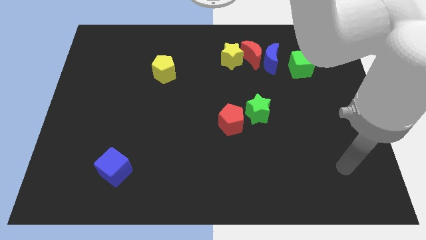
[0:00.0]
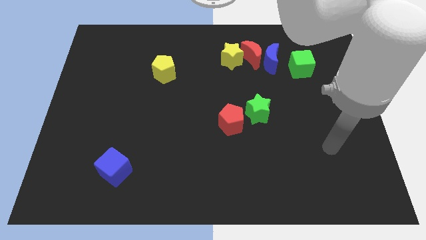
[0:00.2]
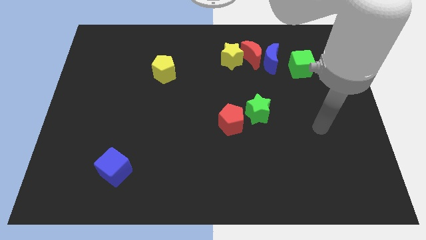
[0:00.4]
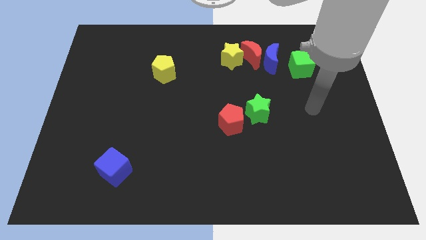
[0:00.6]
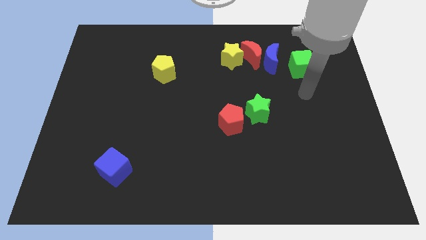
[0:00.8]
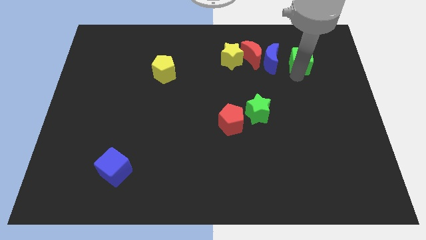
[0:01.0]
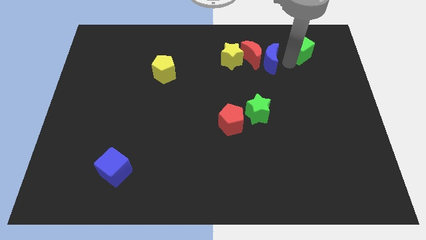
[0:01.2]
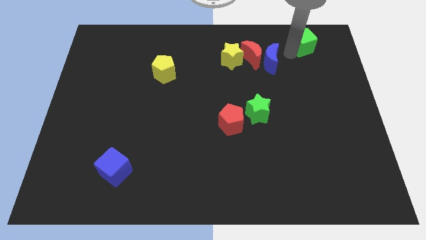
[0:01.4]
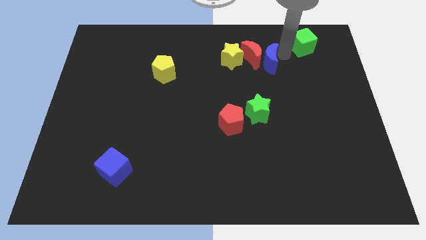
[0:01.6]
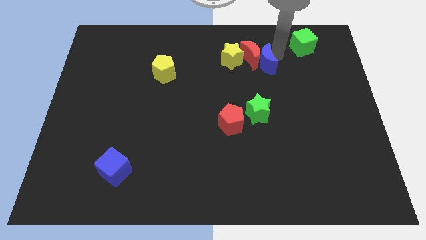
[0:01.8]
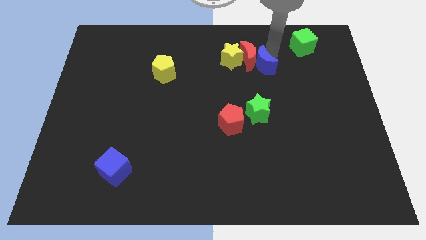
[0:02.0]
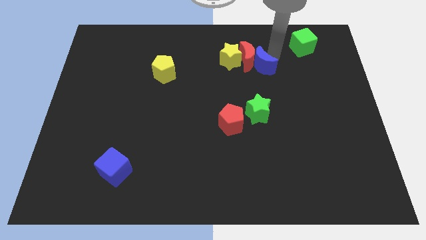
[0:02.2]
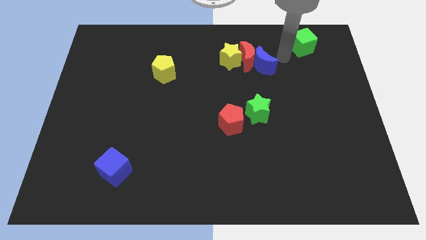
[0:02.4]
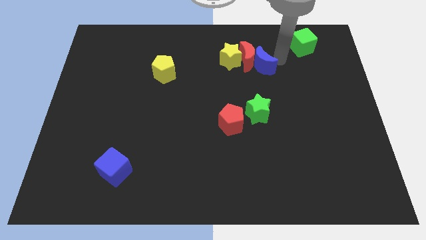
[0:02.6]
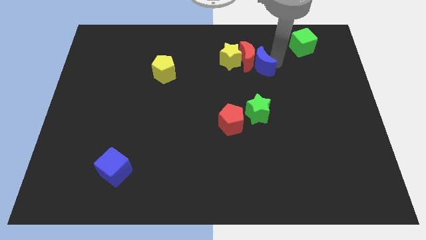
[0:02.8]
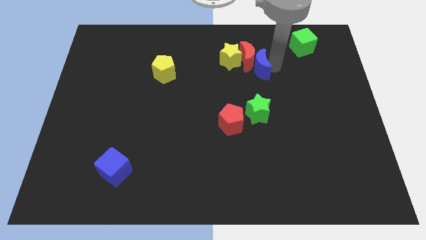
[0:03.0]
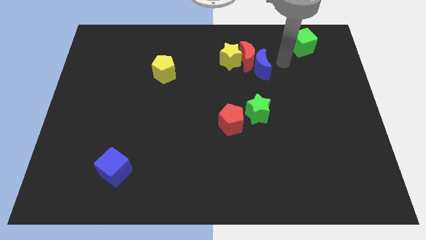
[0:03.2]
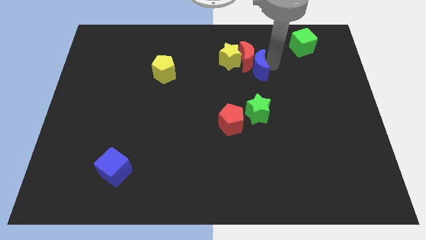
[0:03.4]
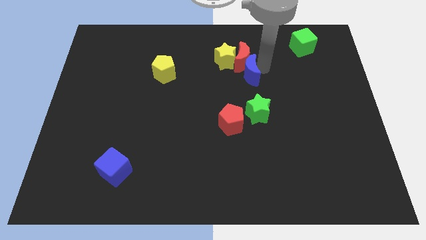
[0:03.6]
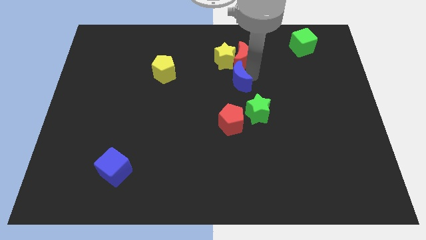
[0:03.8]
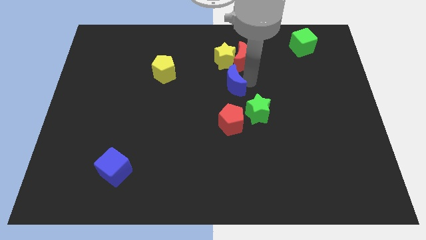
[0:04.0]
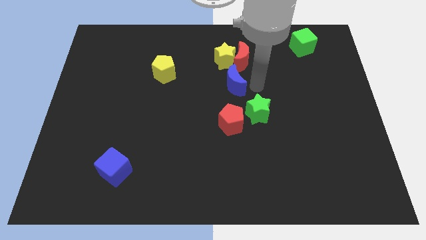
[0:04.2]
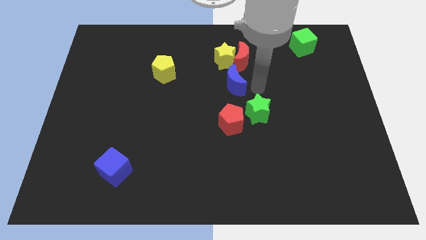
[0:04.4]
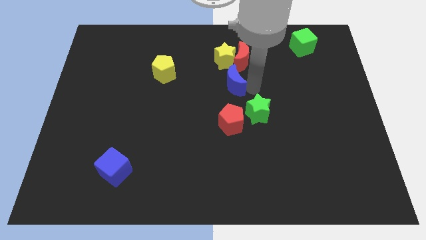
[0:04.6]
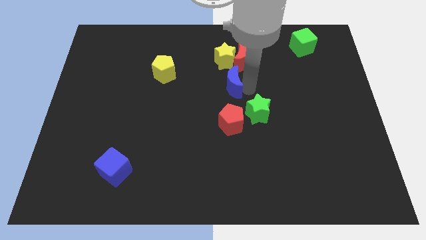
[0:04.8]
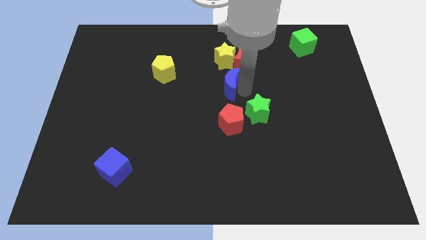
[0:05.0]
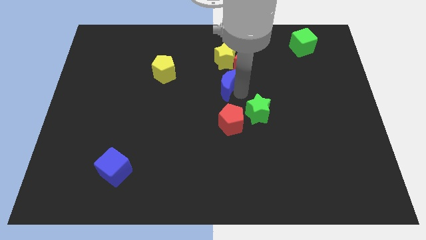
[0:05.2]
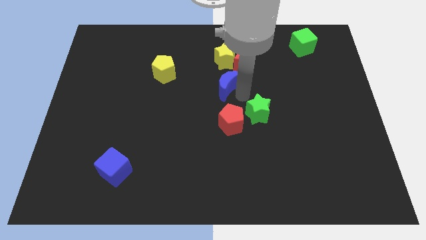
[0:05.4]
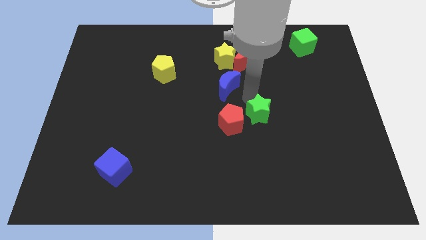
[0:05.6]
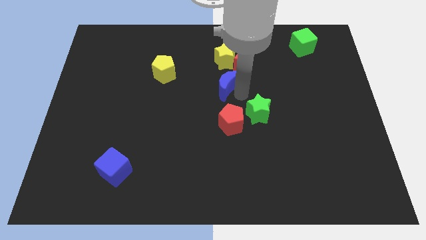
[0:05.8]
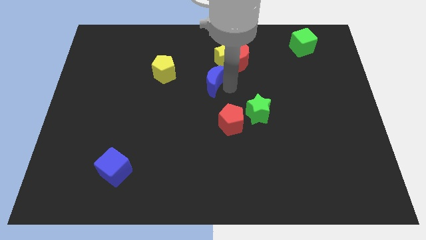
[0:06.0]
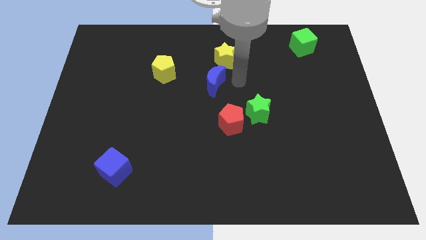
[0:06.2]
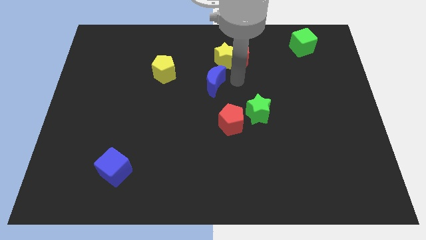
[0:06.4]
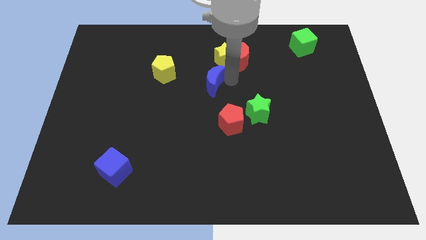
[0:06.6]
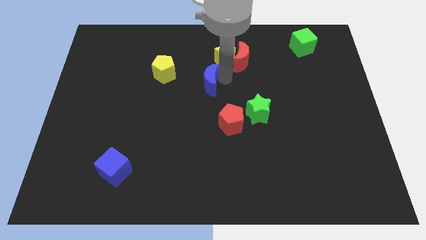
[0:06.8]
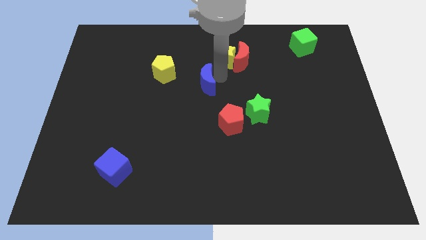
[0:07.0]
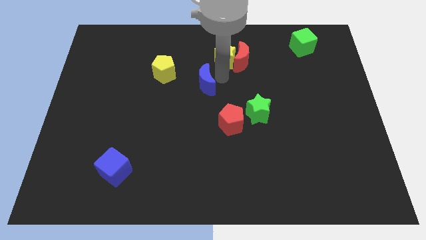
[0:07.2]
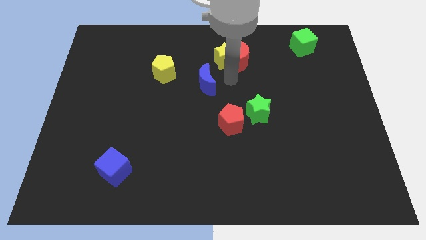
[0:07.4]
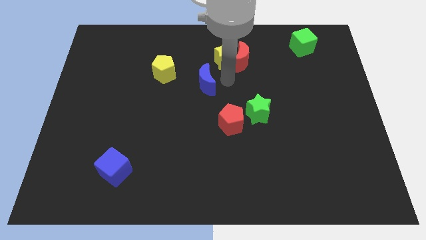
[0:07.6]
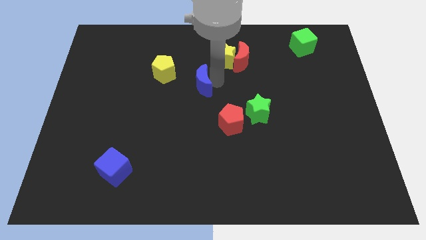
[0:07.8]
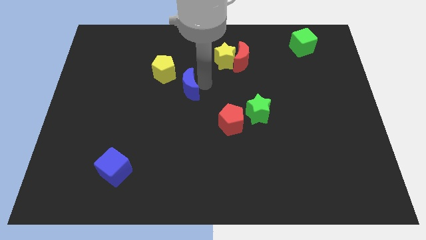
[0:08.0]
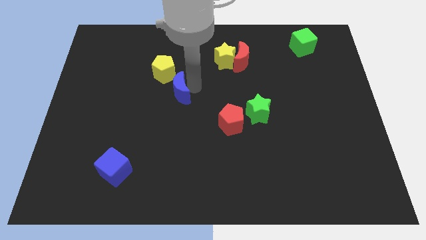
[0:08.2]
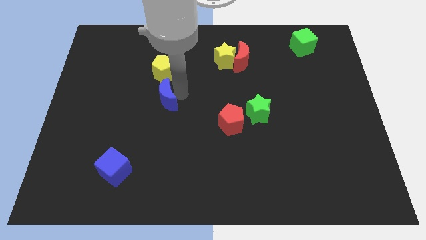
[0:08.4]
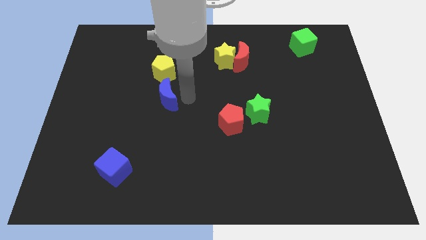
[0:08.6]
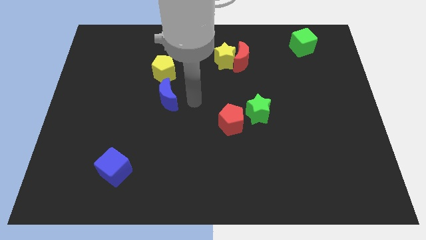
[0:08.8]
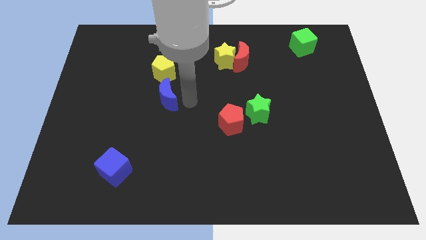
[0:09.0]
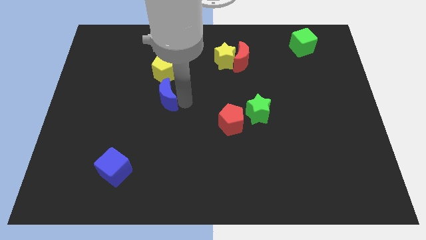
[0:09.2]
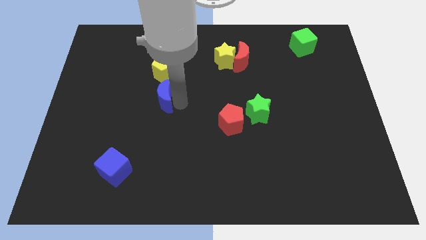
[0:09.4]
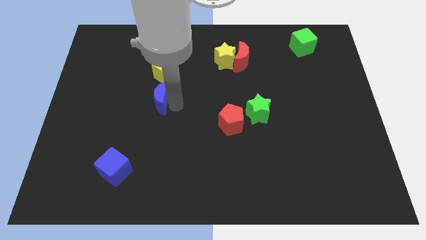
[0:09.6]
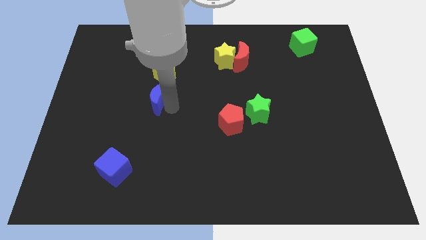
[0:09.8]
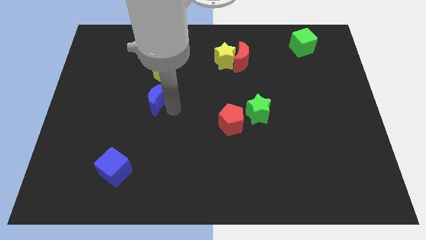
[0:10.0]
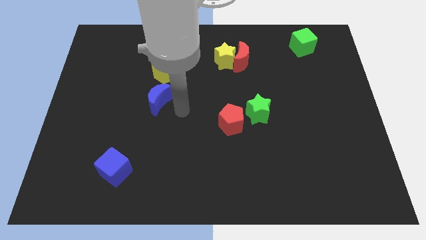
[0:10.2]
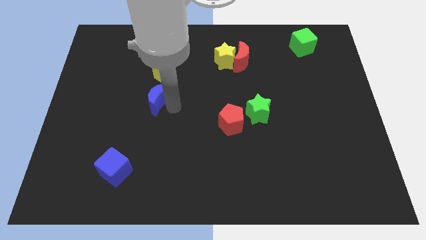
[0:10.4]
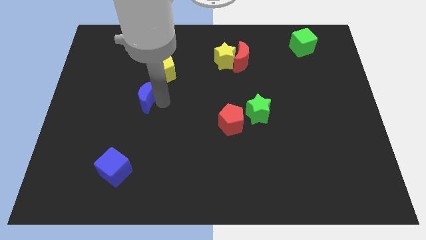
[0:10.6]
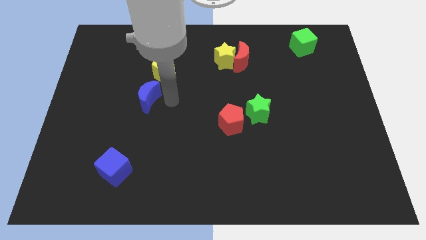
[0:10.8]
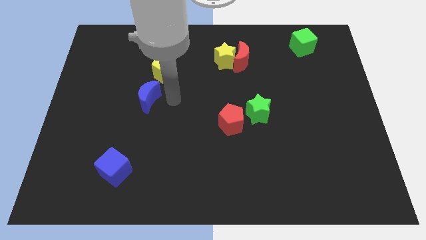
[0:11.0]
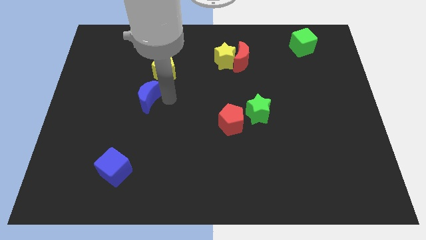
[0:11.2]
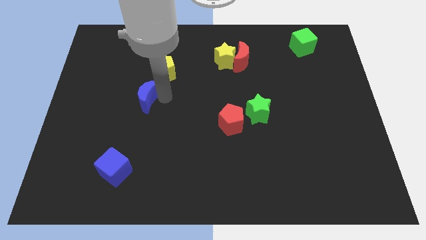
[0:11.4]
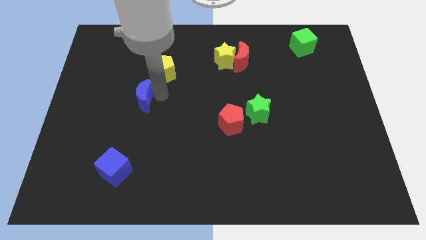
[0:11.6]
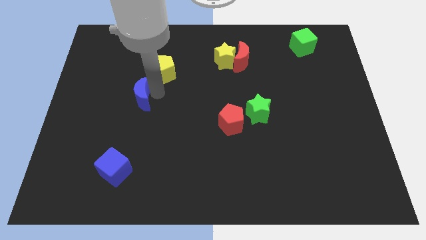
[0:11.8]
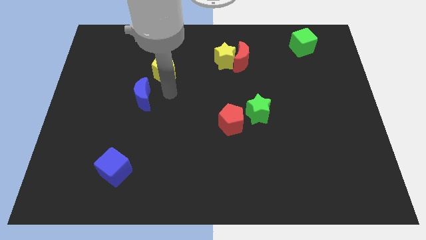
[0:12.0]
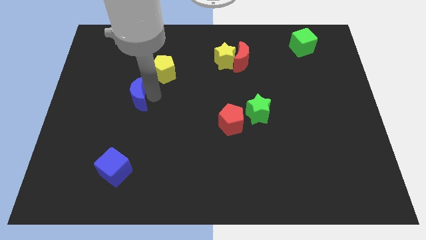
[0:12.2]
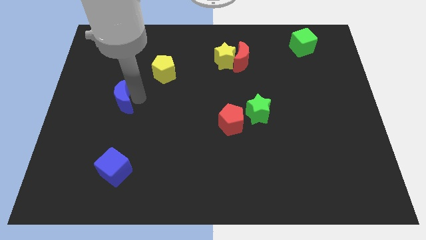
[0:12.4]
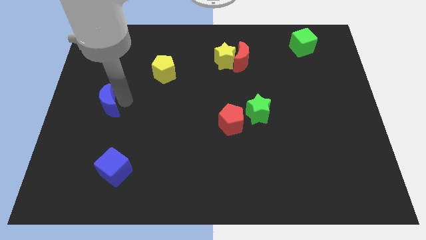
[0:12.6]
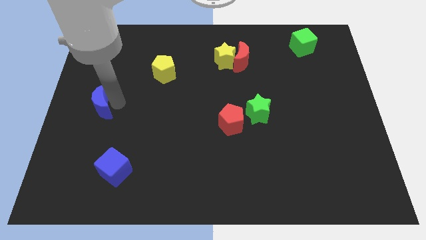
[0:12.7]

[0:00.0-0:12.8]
put the blue moon to the left side

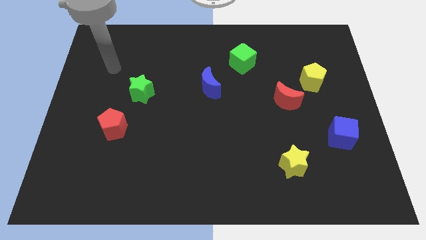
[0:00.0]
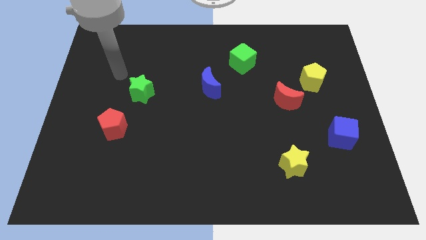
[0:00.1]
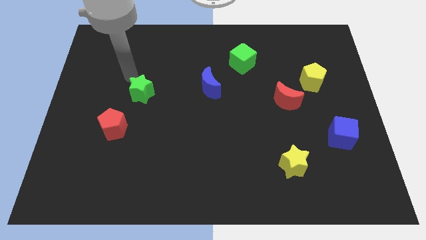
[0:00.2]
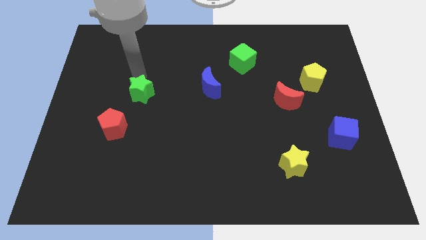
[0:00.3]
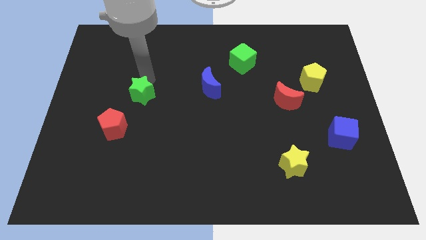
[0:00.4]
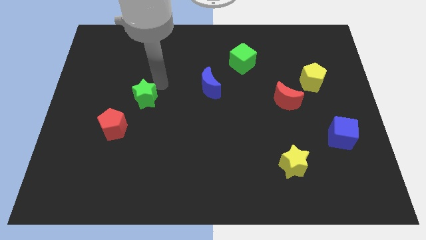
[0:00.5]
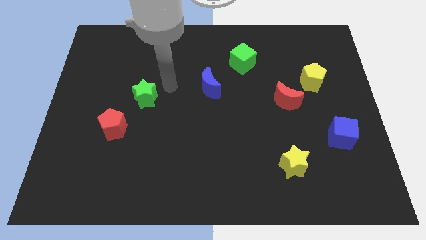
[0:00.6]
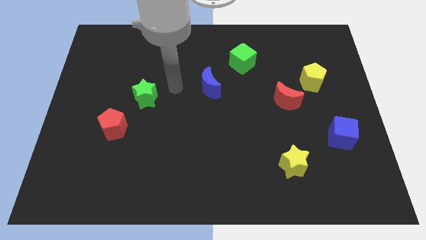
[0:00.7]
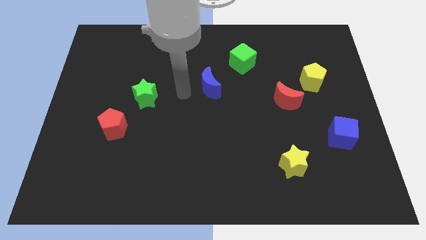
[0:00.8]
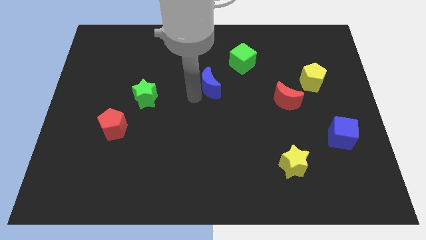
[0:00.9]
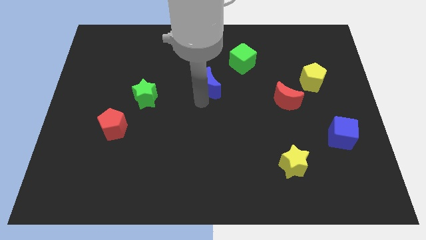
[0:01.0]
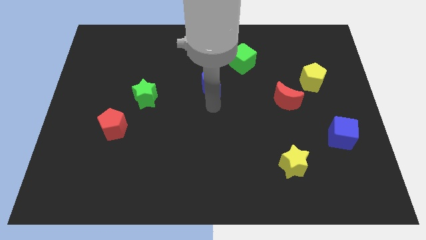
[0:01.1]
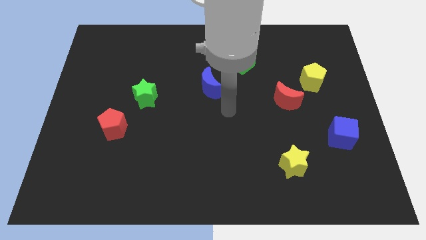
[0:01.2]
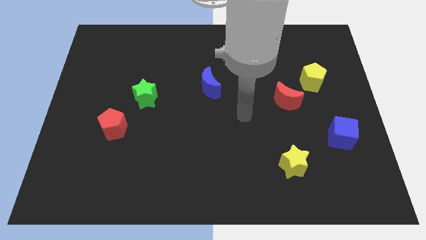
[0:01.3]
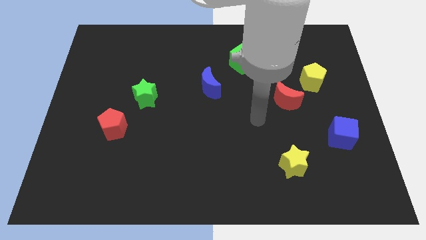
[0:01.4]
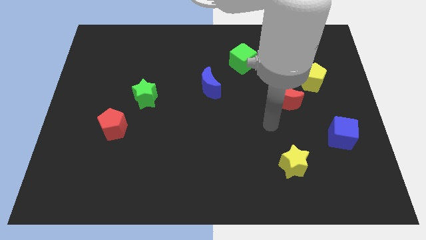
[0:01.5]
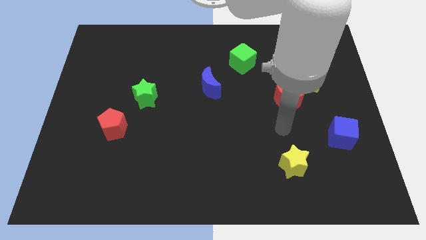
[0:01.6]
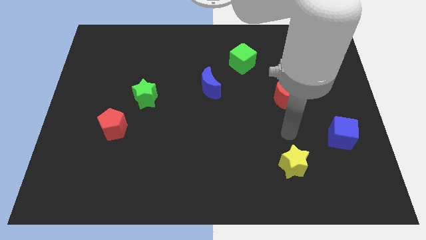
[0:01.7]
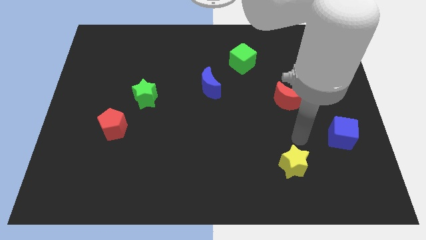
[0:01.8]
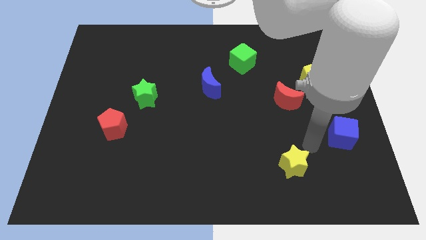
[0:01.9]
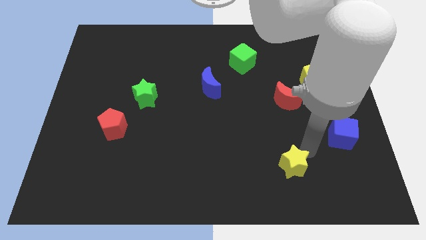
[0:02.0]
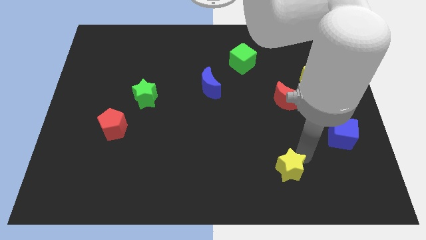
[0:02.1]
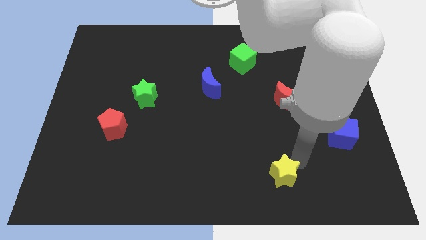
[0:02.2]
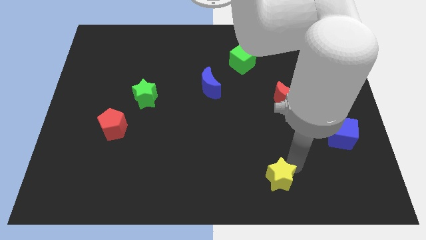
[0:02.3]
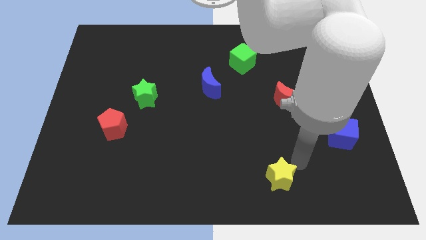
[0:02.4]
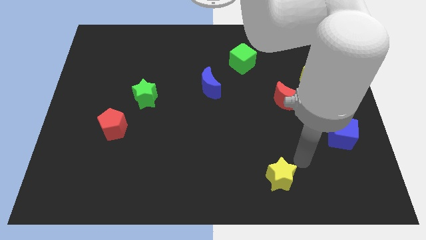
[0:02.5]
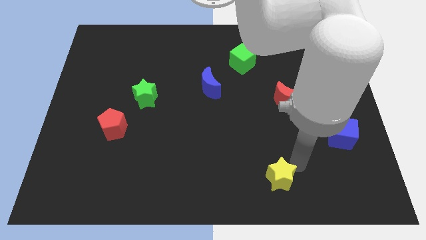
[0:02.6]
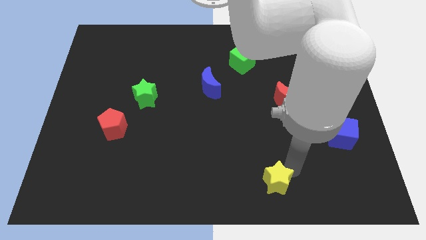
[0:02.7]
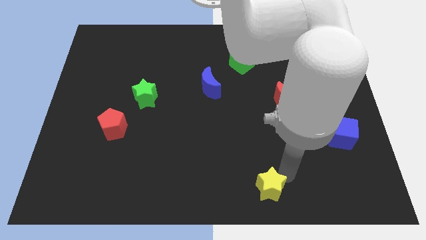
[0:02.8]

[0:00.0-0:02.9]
move the yellow star to the bottom side
